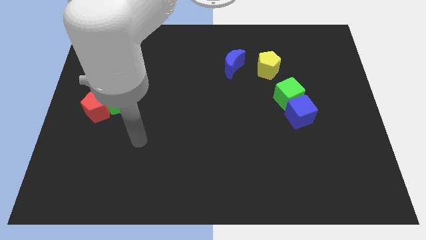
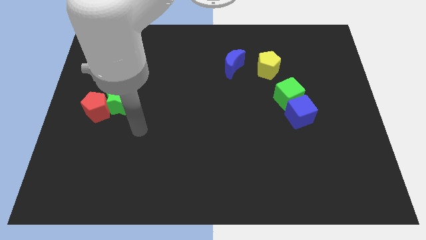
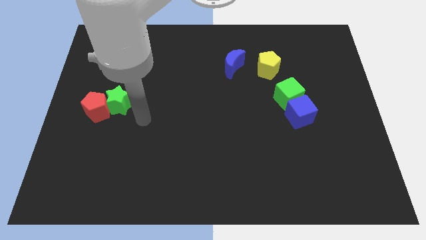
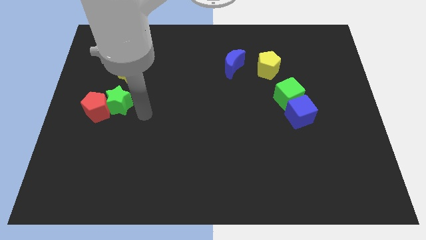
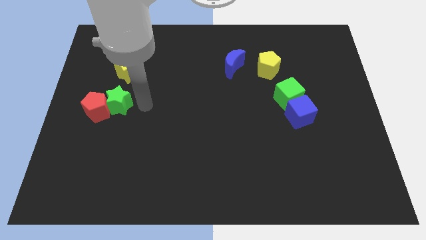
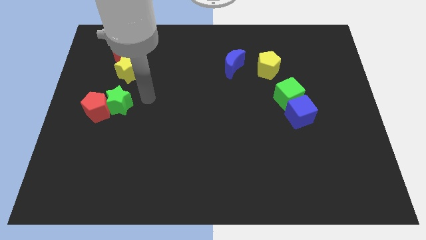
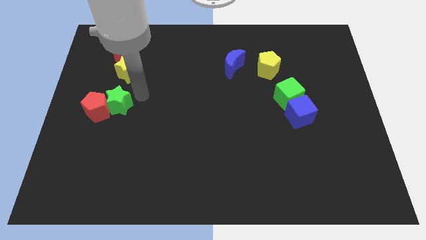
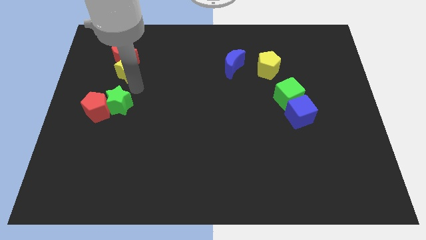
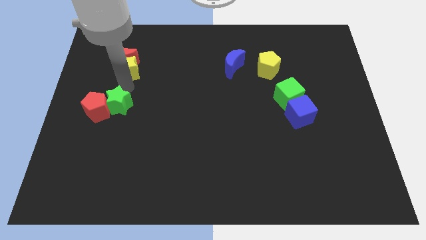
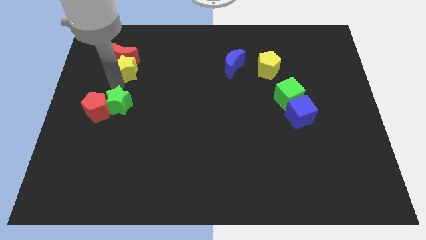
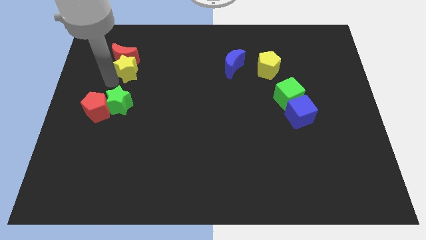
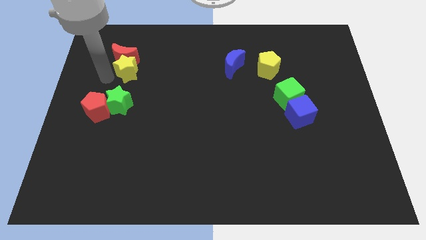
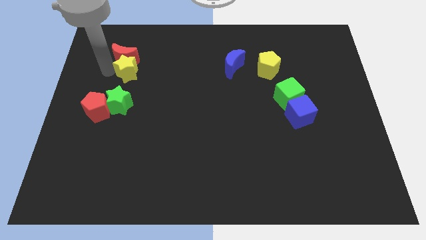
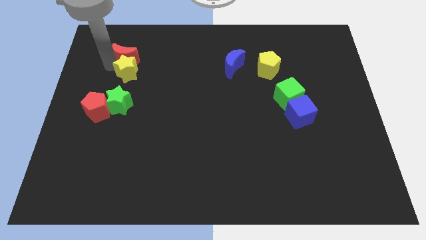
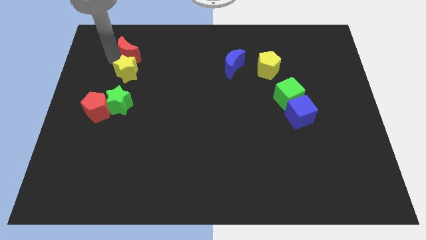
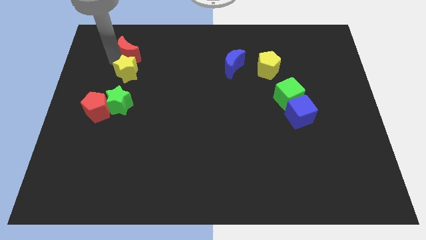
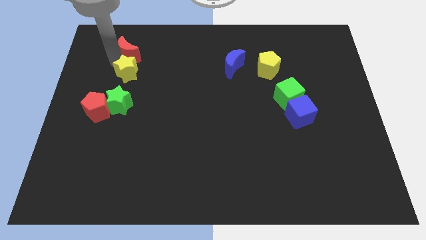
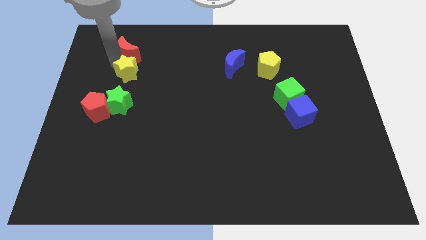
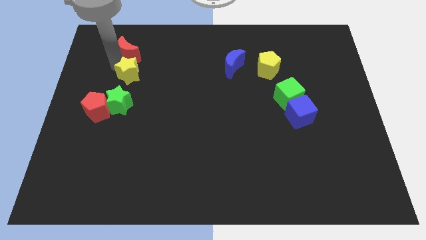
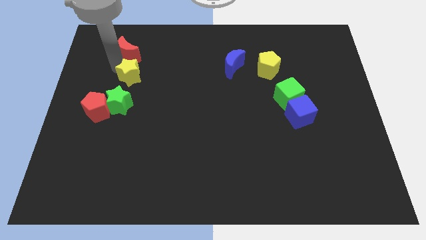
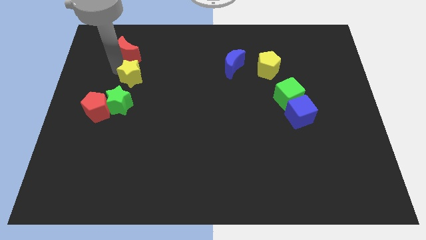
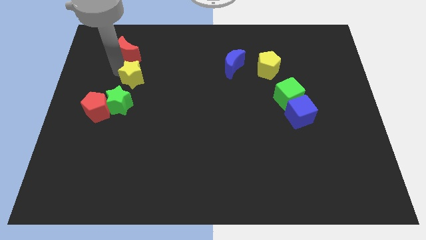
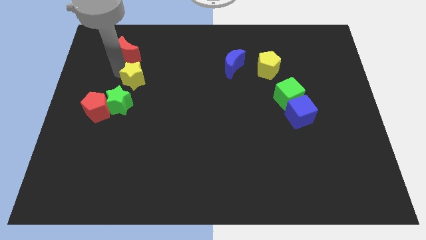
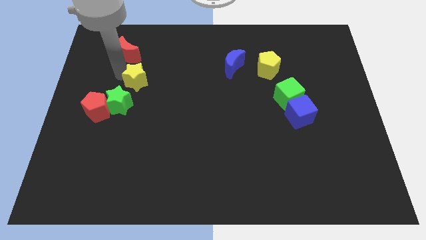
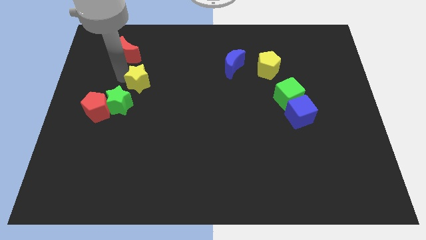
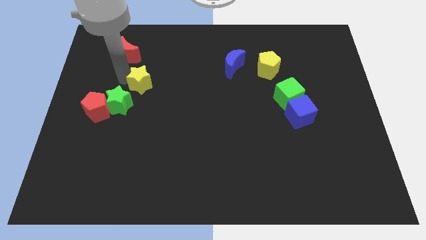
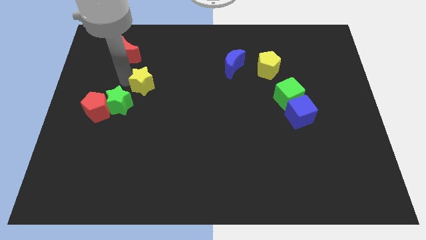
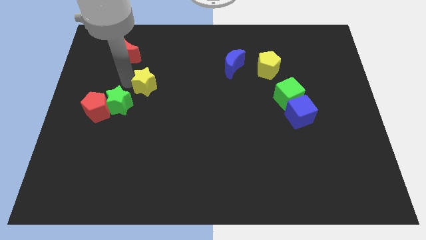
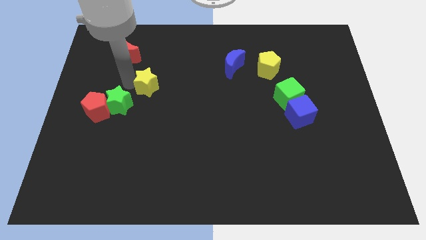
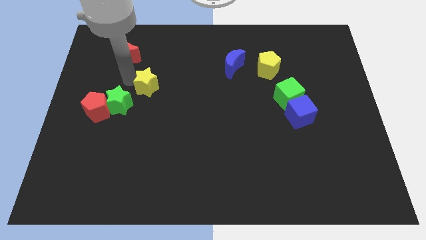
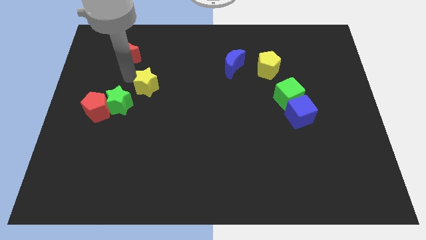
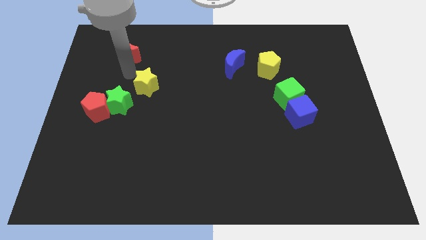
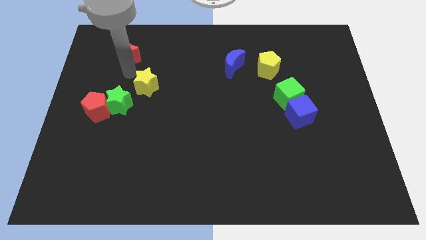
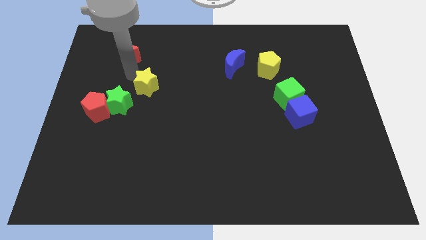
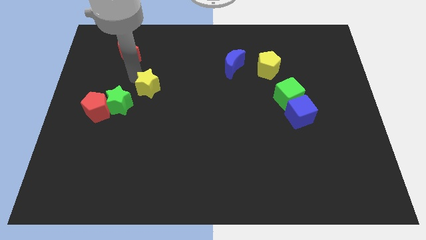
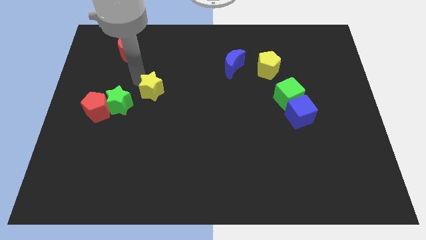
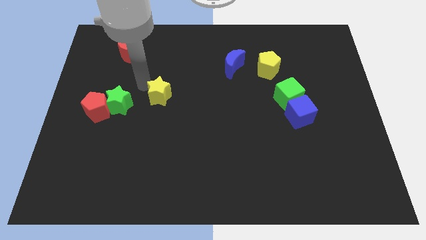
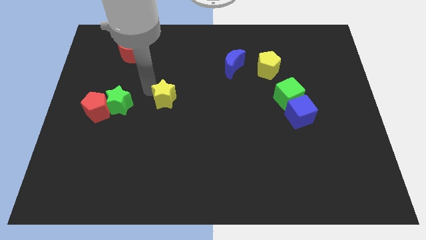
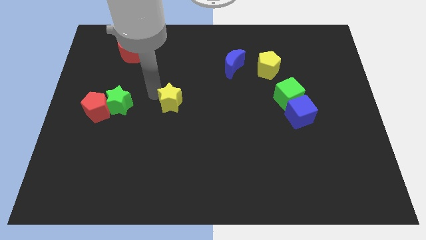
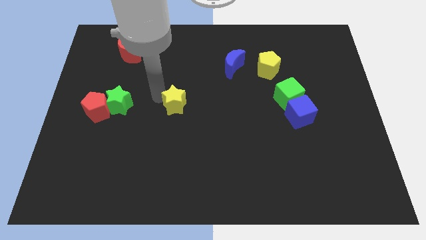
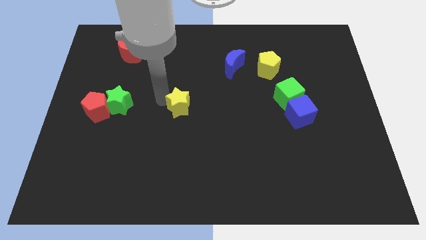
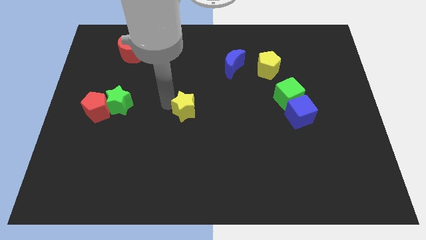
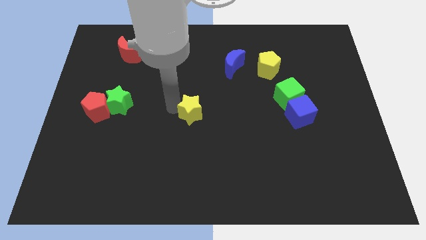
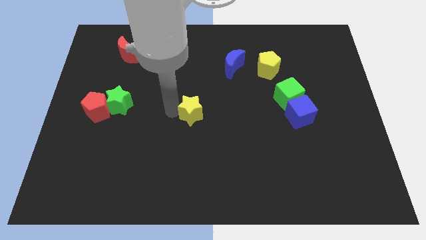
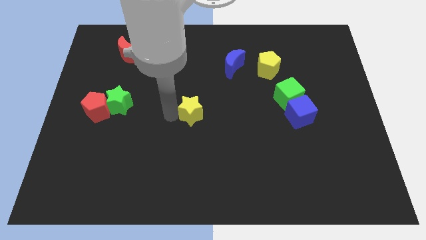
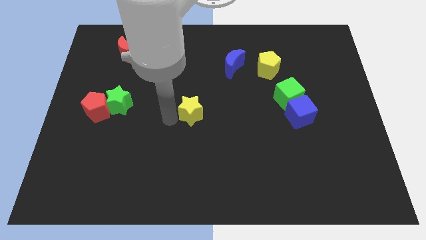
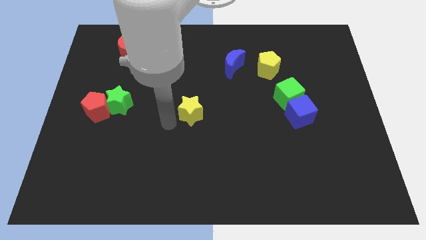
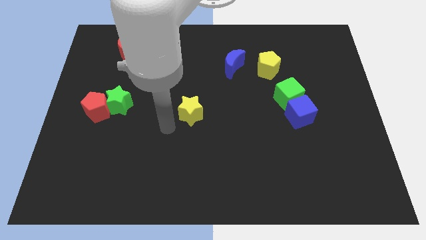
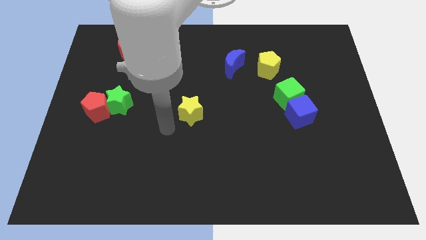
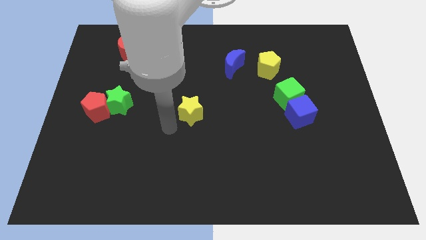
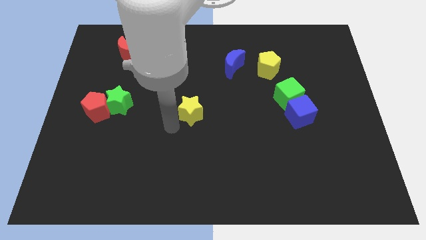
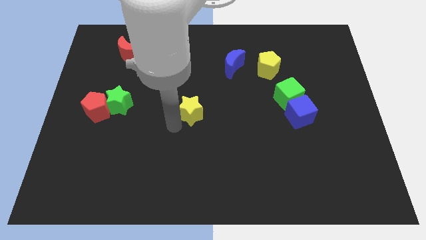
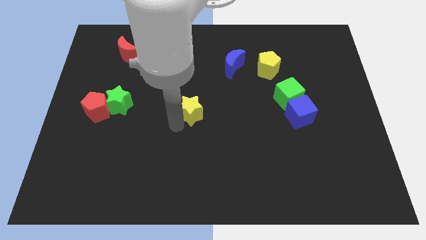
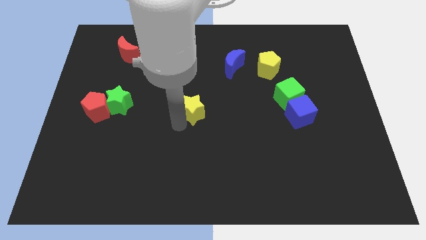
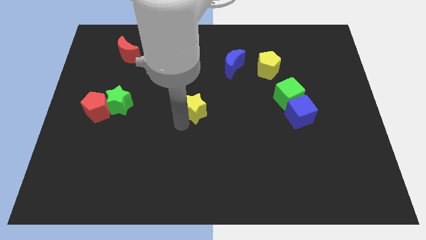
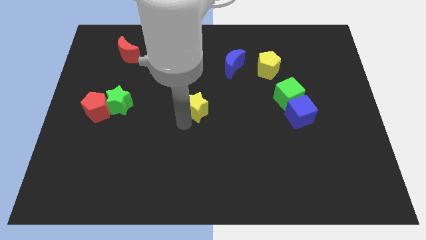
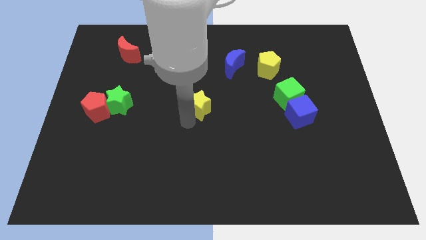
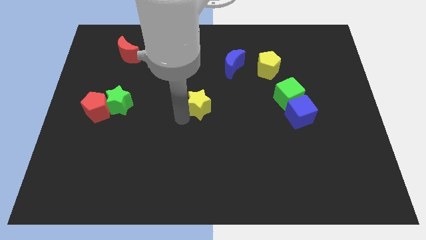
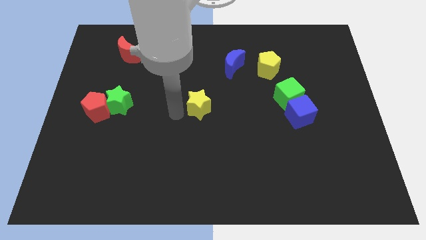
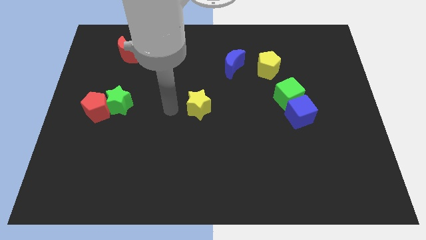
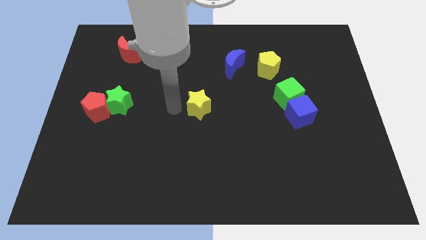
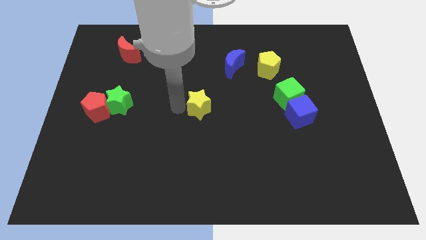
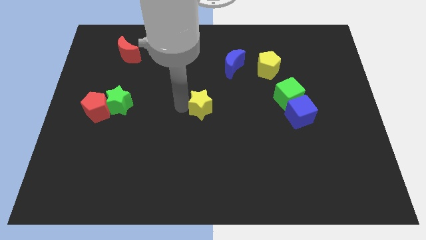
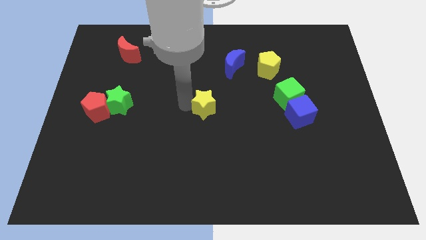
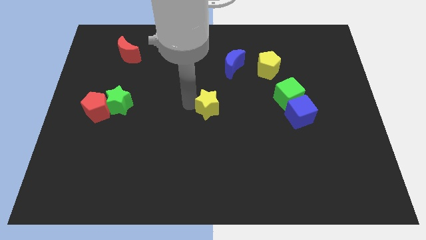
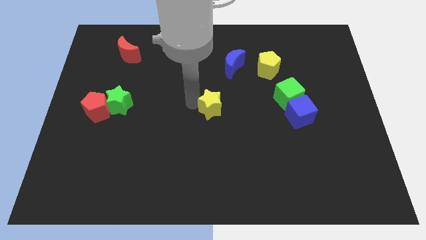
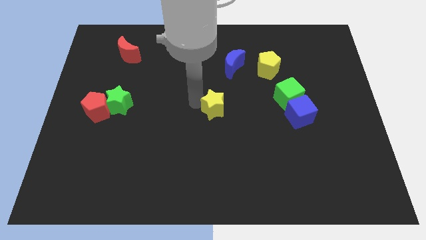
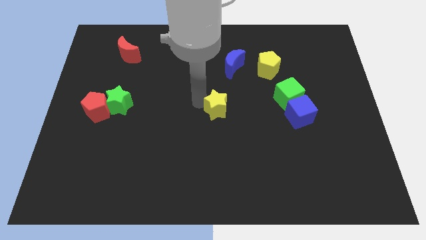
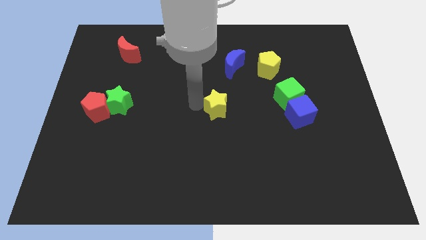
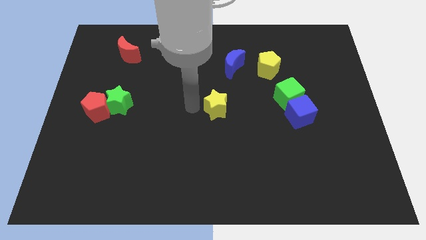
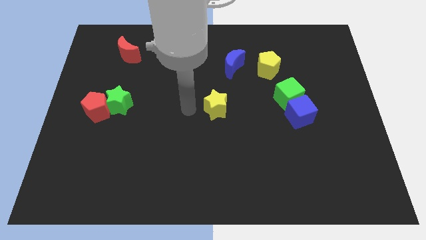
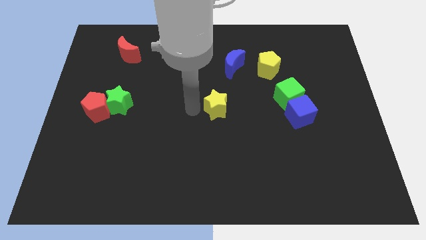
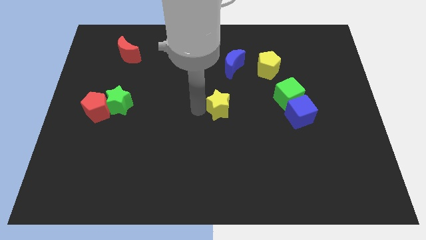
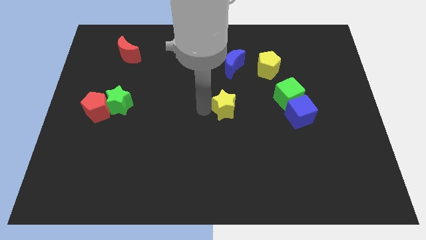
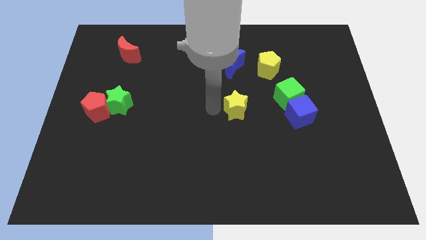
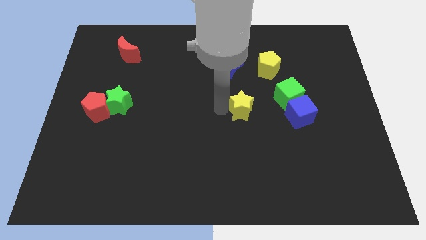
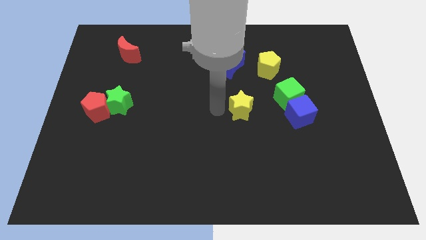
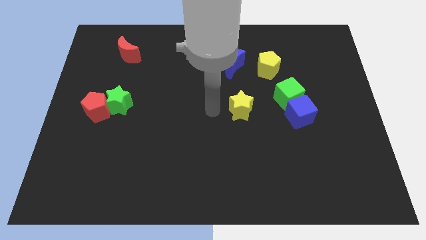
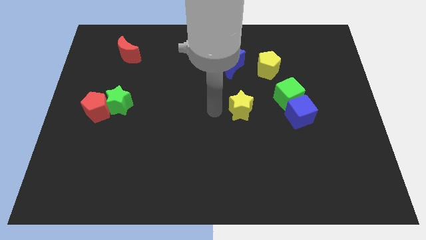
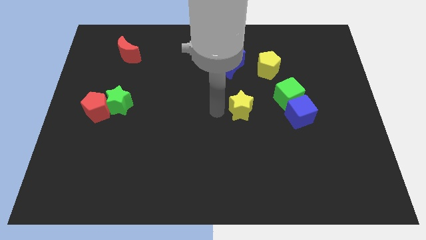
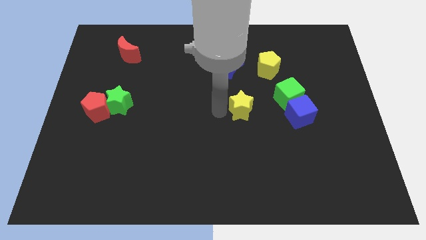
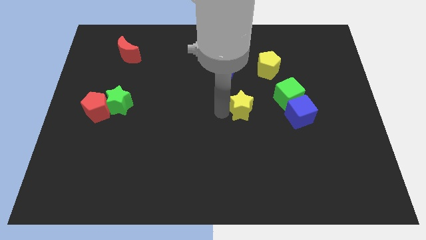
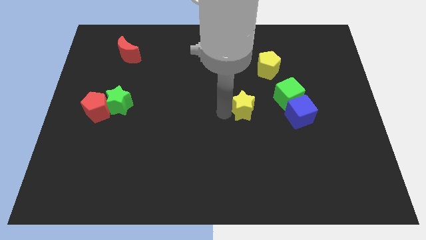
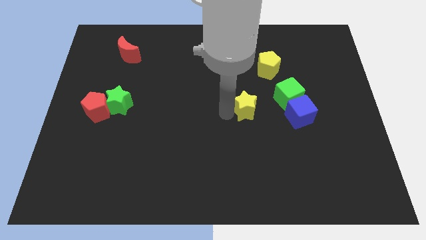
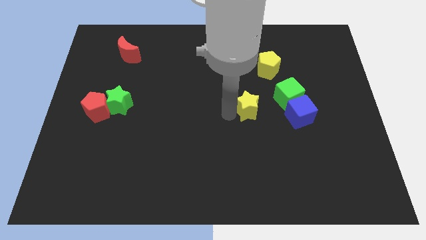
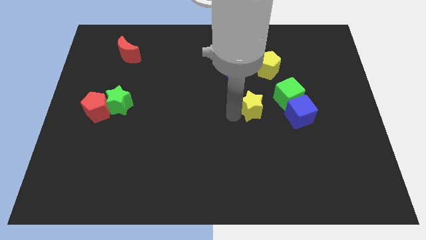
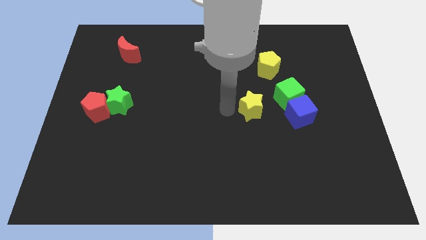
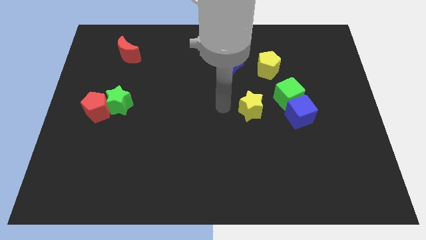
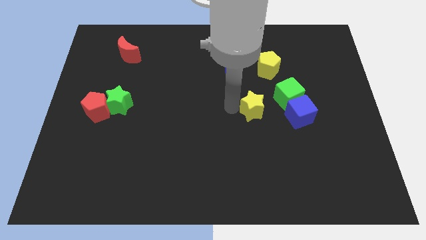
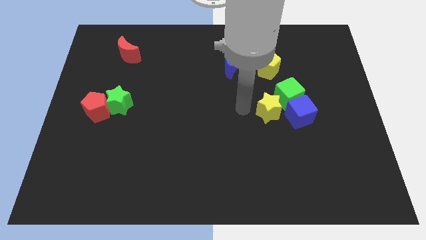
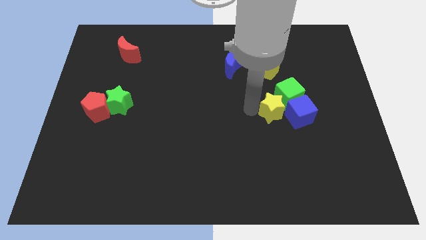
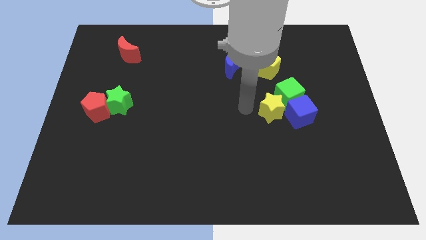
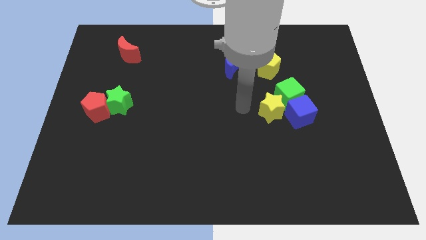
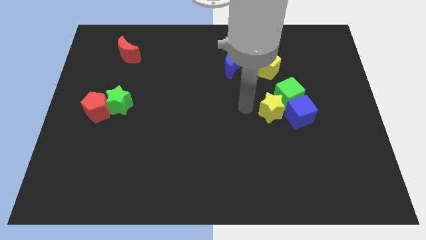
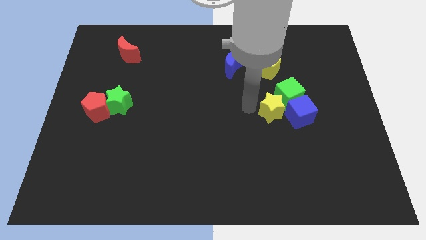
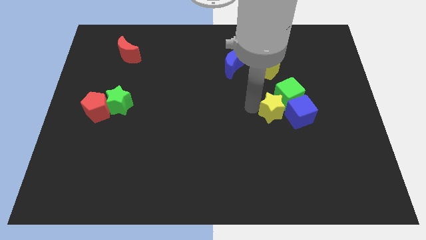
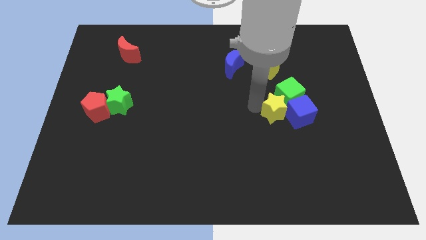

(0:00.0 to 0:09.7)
put the yellow star close to the blue cube
